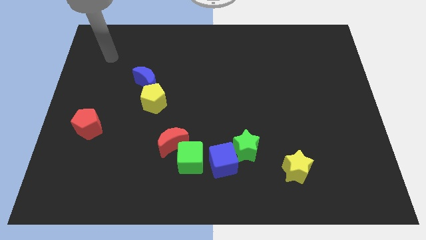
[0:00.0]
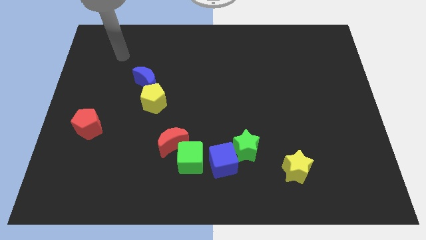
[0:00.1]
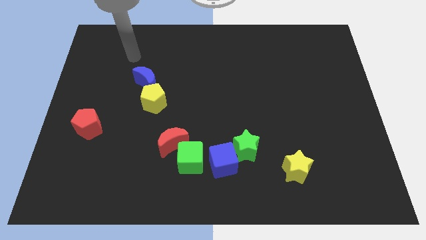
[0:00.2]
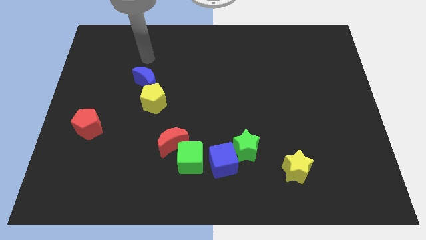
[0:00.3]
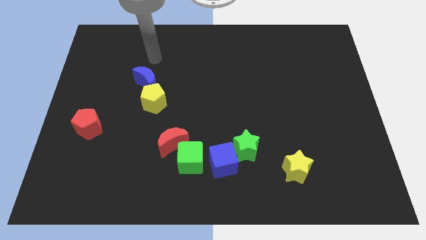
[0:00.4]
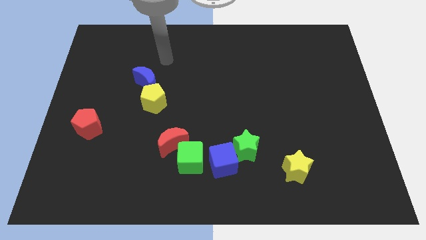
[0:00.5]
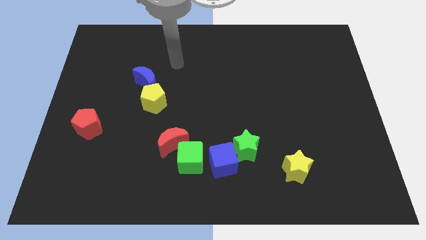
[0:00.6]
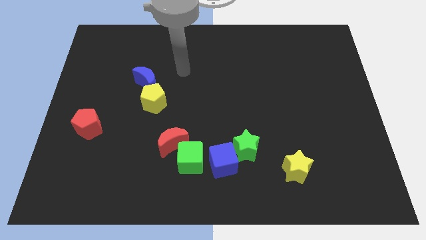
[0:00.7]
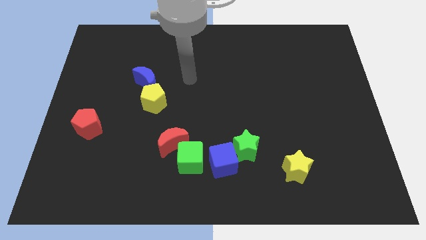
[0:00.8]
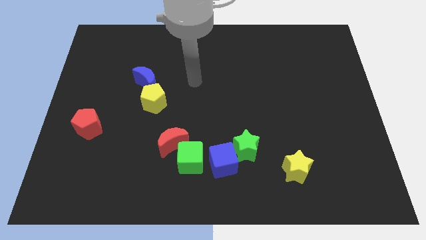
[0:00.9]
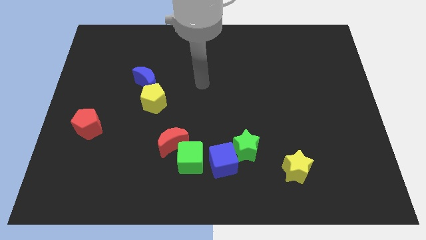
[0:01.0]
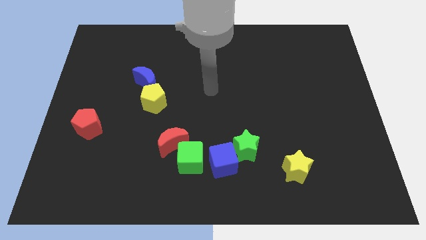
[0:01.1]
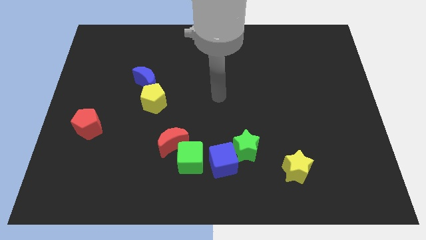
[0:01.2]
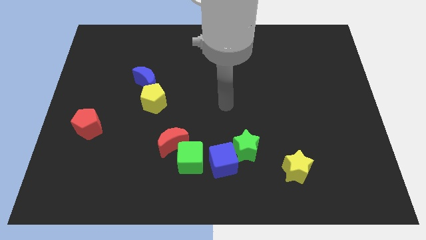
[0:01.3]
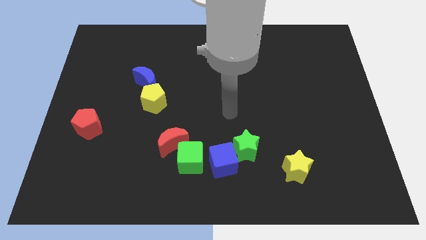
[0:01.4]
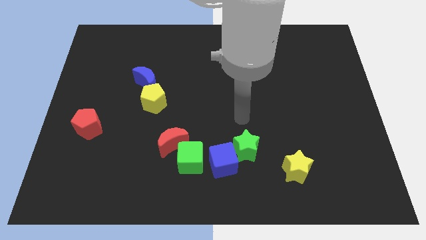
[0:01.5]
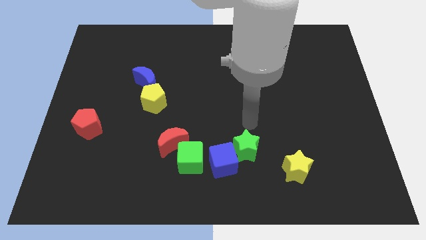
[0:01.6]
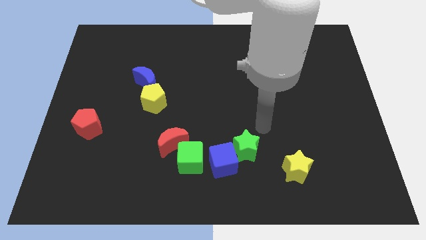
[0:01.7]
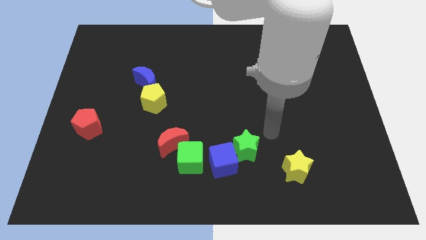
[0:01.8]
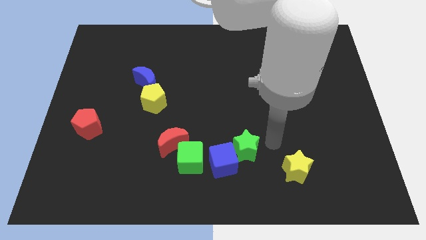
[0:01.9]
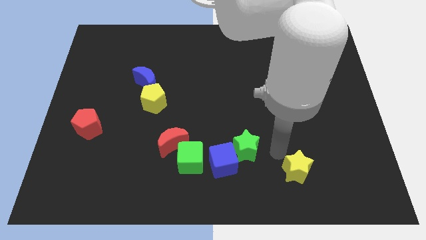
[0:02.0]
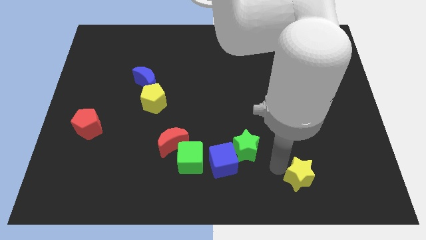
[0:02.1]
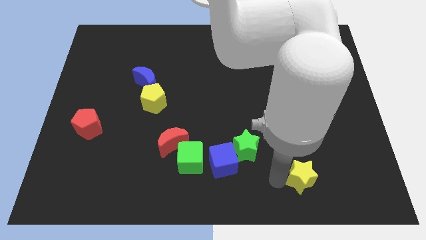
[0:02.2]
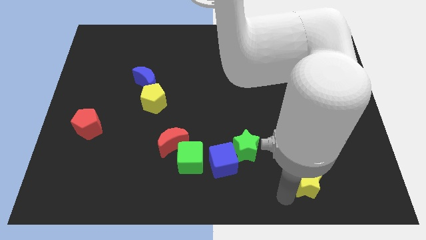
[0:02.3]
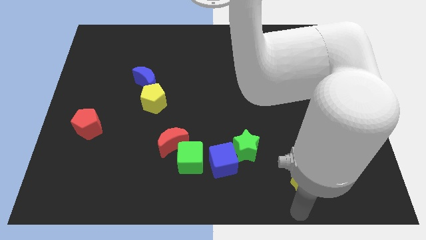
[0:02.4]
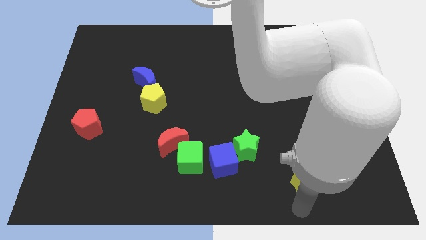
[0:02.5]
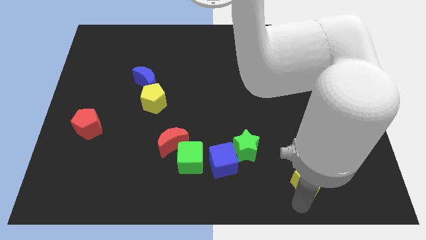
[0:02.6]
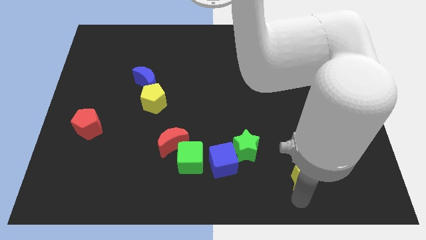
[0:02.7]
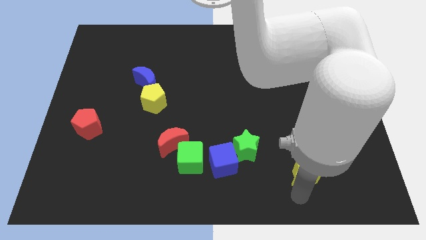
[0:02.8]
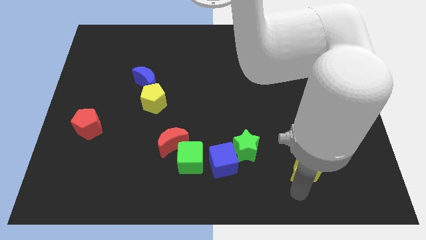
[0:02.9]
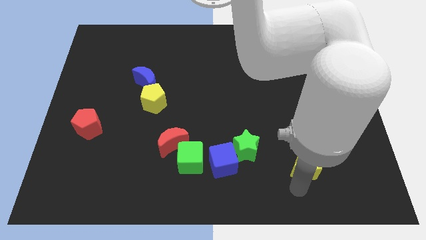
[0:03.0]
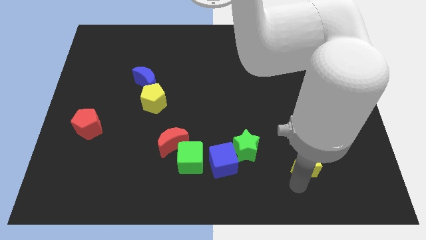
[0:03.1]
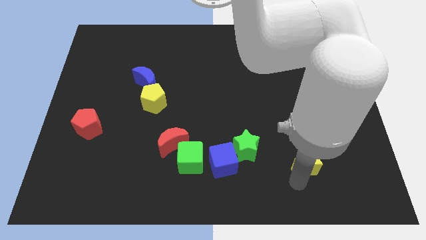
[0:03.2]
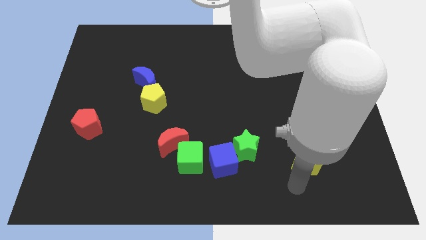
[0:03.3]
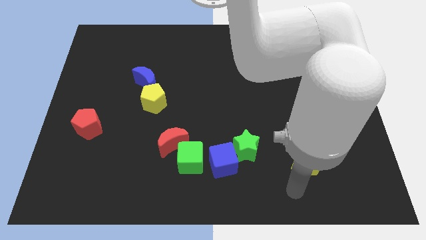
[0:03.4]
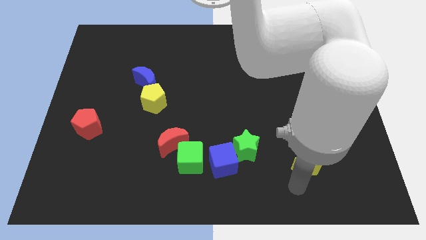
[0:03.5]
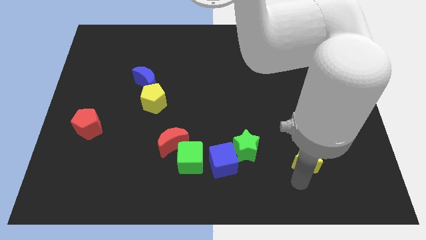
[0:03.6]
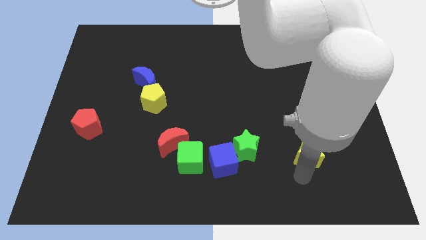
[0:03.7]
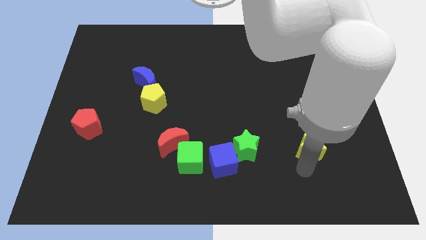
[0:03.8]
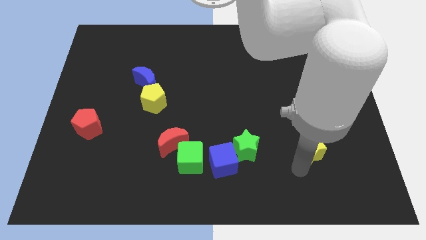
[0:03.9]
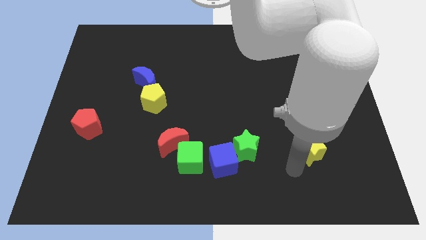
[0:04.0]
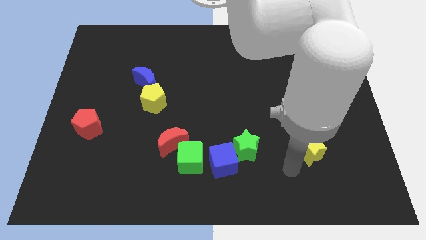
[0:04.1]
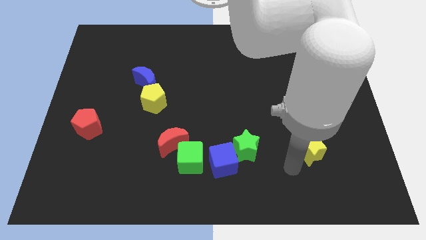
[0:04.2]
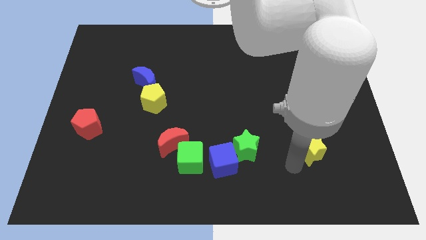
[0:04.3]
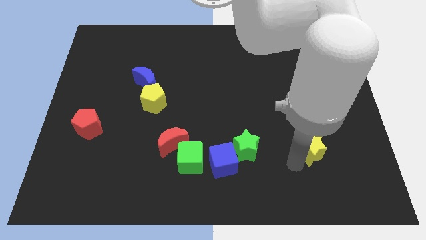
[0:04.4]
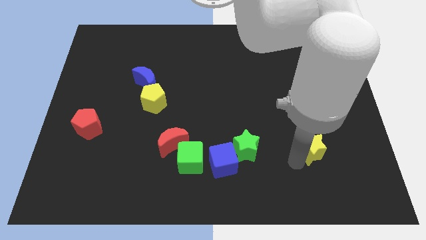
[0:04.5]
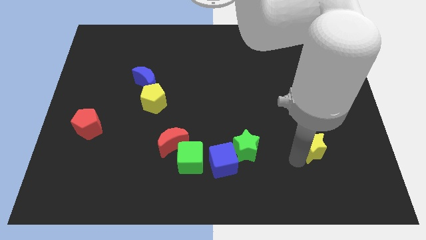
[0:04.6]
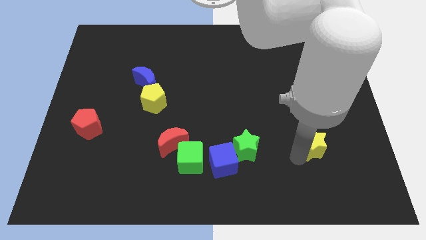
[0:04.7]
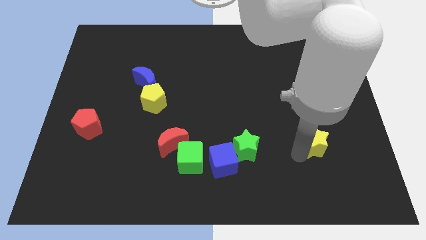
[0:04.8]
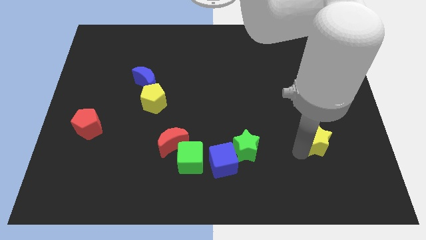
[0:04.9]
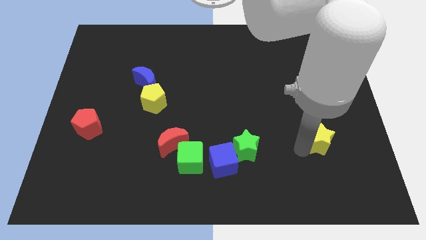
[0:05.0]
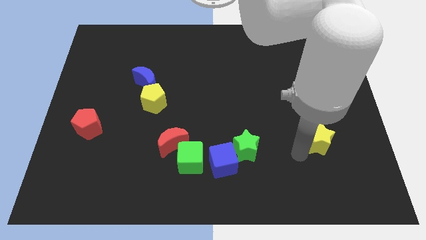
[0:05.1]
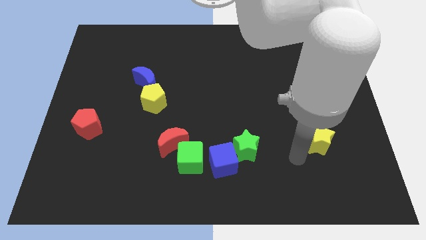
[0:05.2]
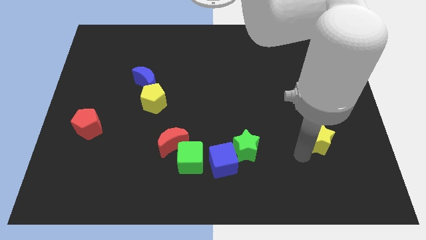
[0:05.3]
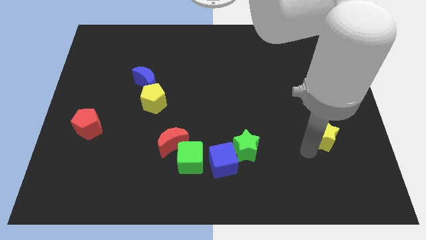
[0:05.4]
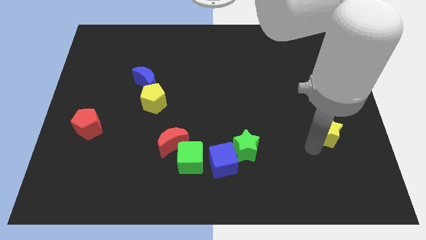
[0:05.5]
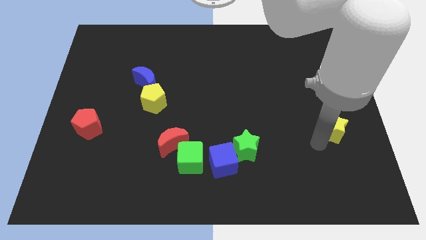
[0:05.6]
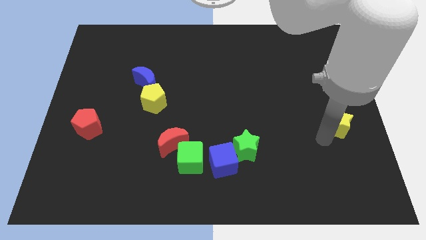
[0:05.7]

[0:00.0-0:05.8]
put the yellow star to the right side of the board
